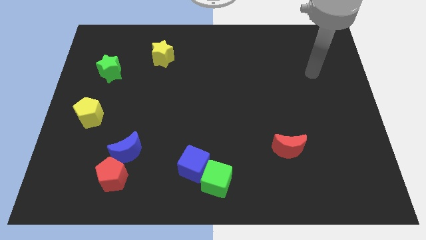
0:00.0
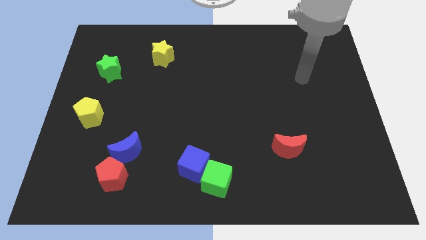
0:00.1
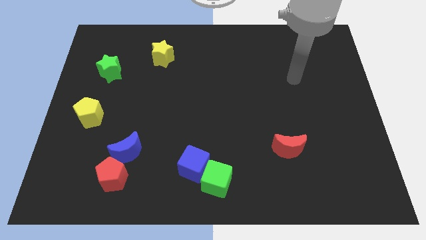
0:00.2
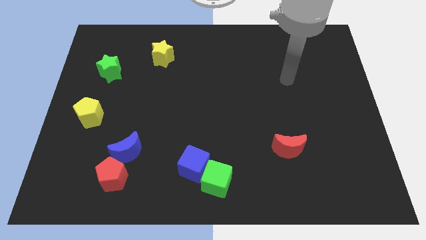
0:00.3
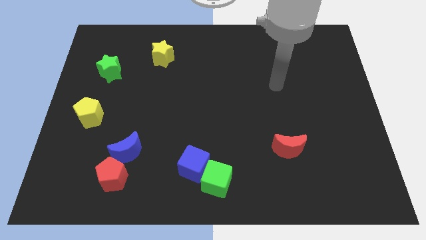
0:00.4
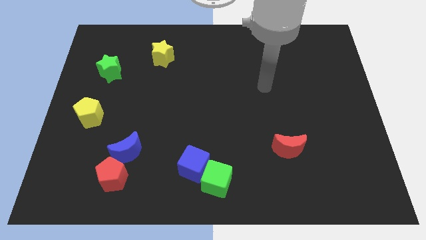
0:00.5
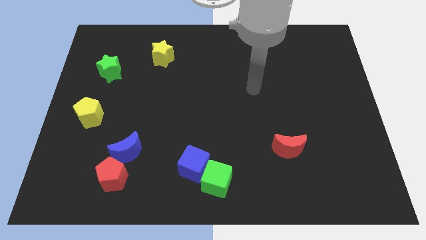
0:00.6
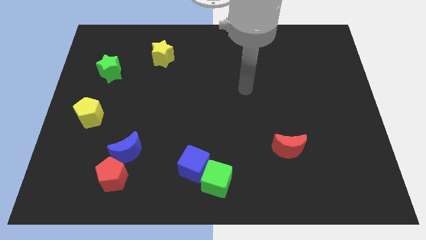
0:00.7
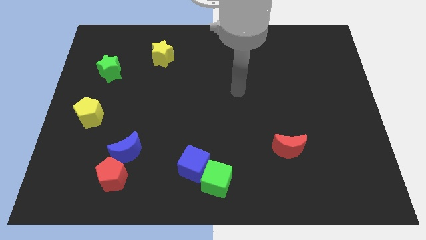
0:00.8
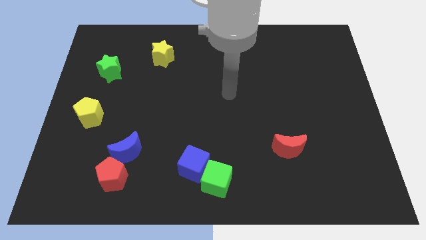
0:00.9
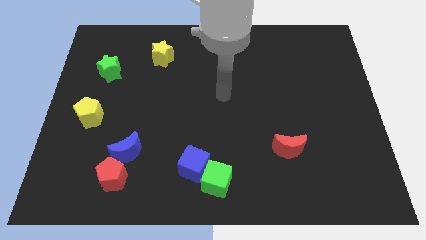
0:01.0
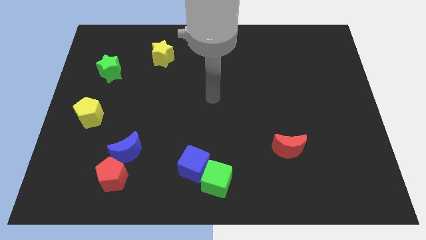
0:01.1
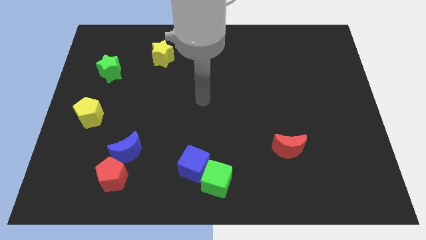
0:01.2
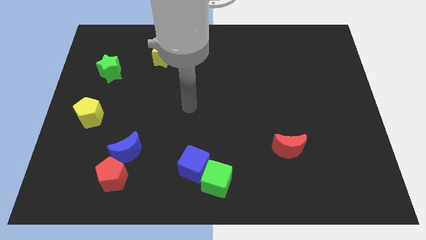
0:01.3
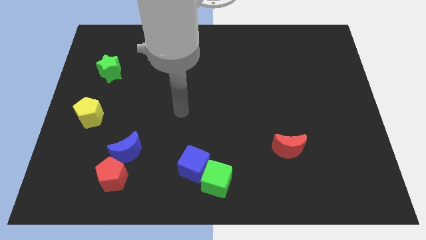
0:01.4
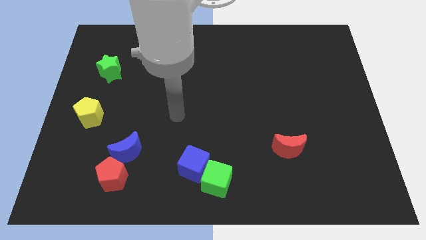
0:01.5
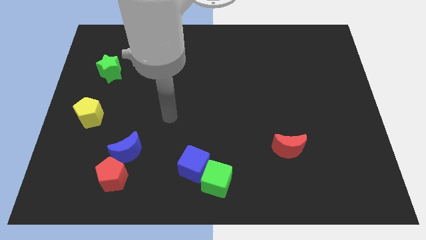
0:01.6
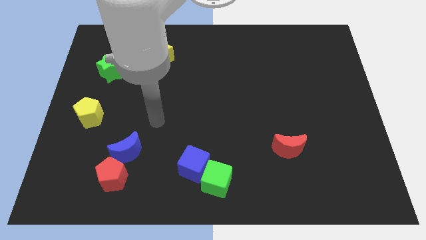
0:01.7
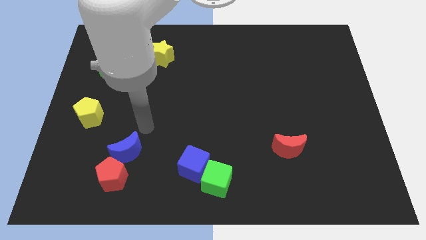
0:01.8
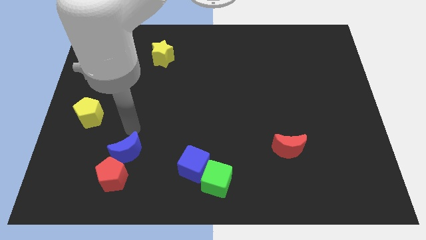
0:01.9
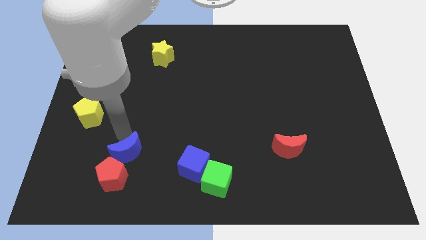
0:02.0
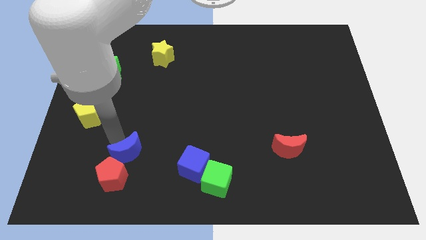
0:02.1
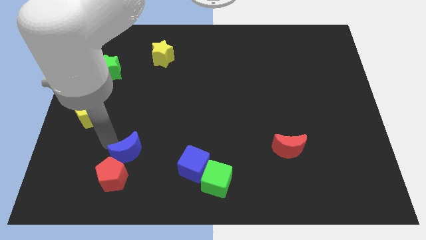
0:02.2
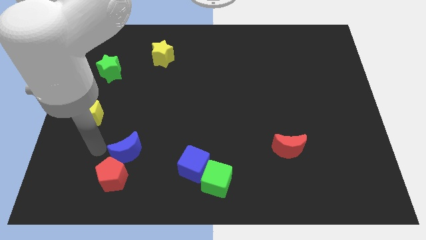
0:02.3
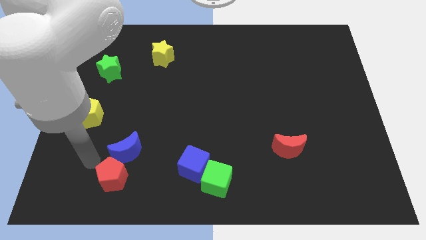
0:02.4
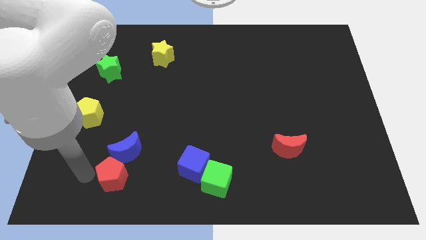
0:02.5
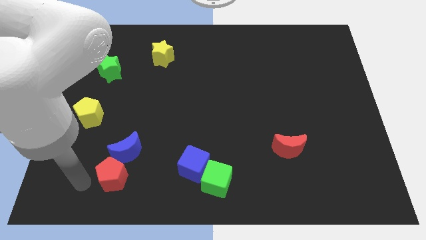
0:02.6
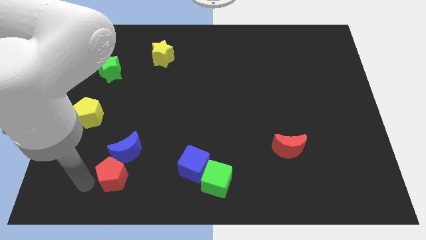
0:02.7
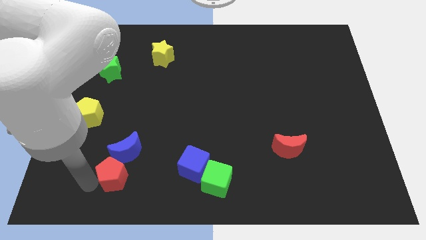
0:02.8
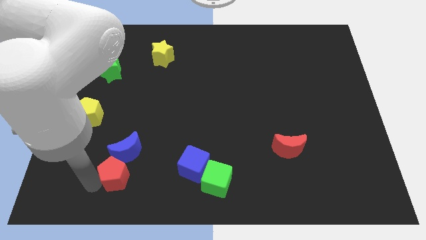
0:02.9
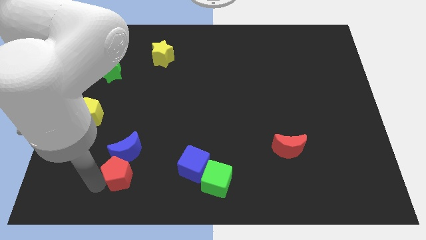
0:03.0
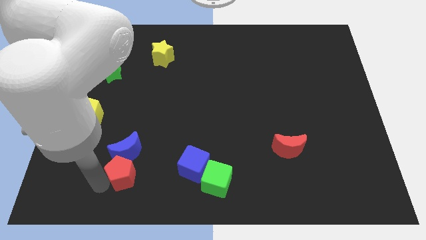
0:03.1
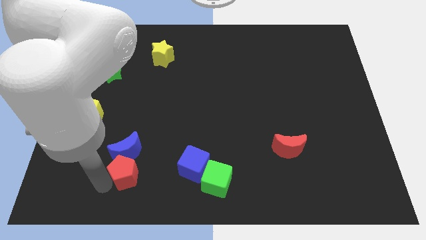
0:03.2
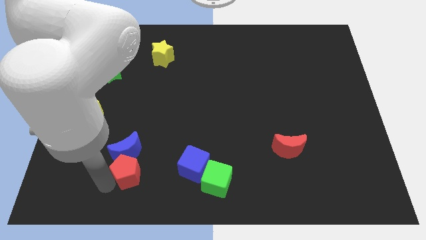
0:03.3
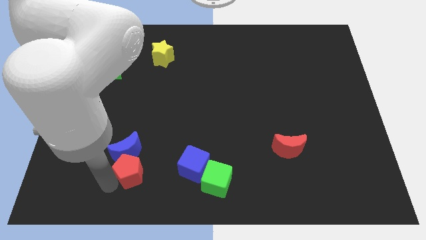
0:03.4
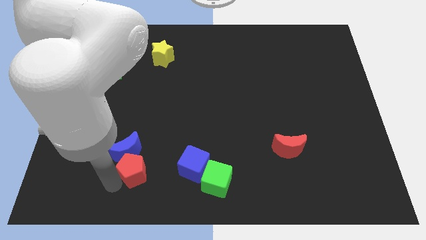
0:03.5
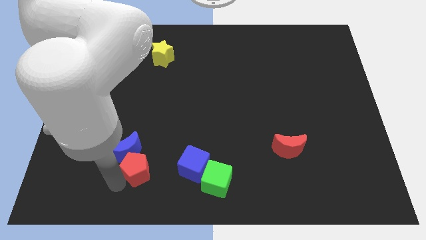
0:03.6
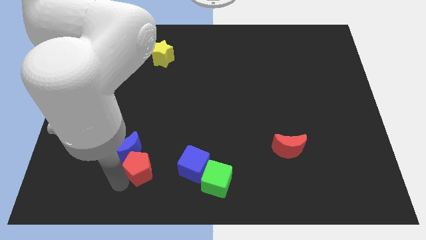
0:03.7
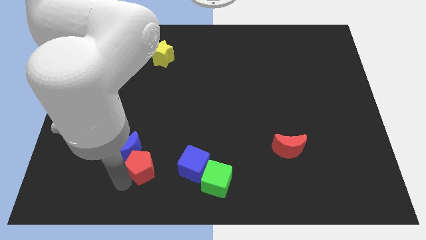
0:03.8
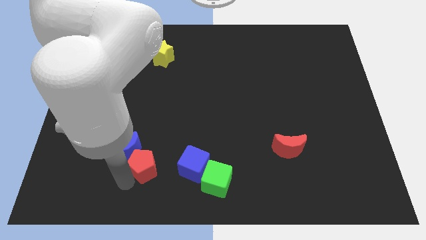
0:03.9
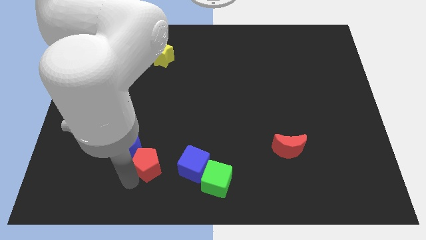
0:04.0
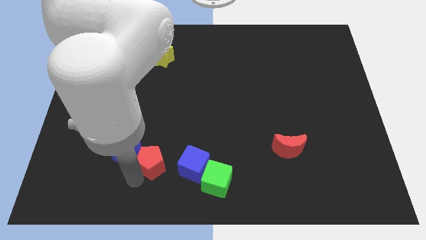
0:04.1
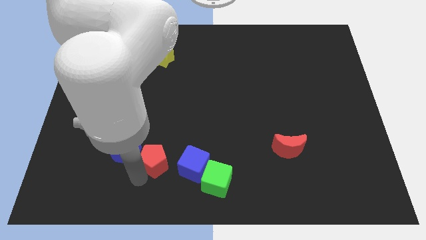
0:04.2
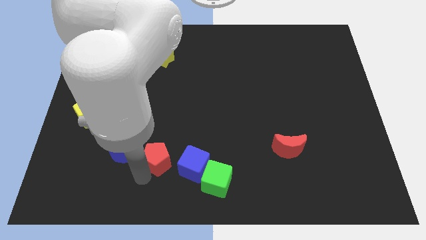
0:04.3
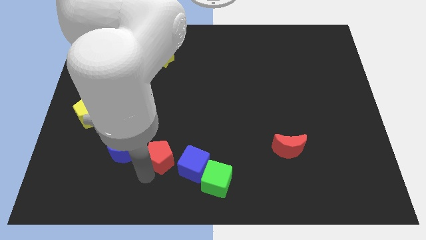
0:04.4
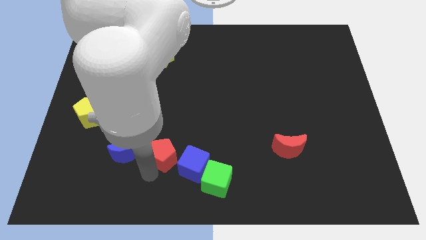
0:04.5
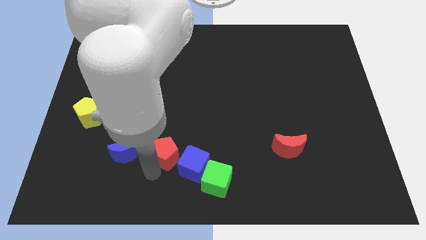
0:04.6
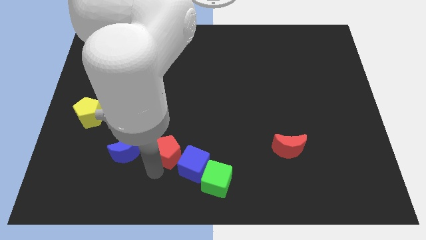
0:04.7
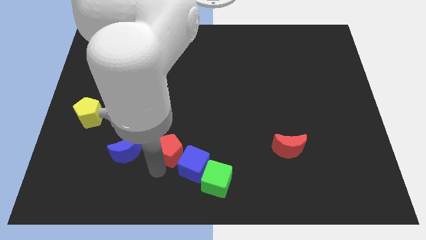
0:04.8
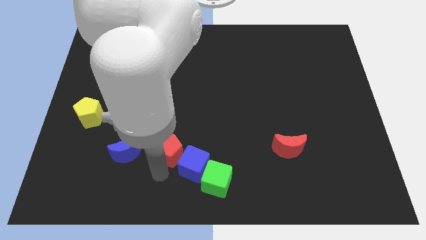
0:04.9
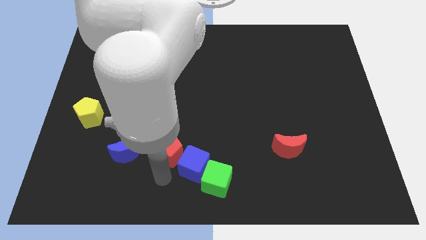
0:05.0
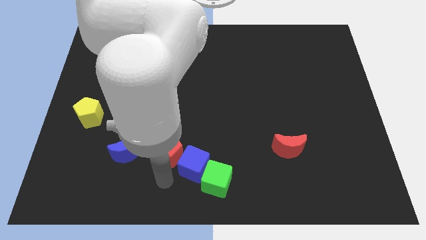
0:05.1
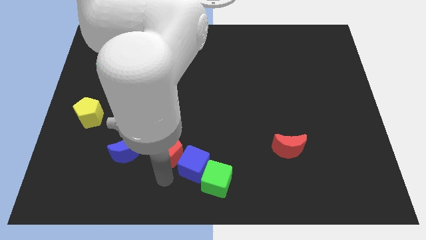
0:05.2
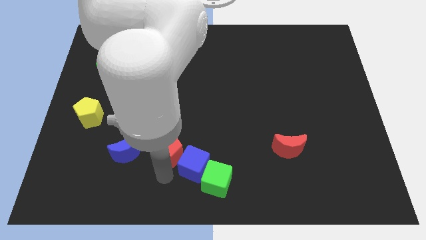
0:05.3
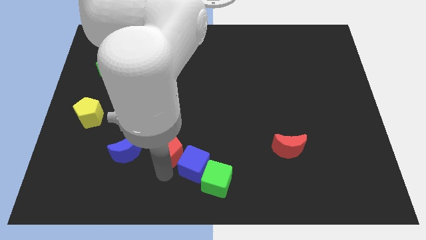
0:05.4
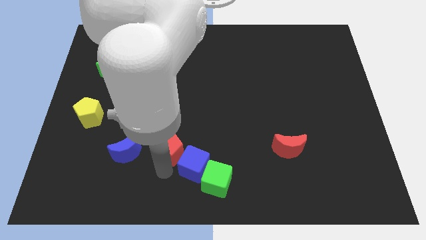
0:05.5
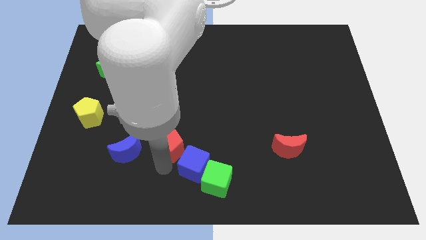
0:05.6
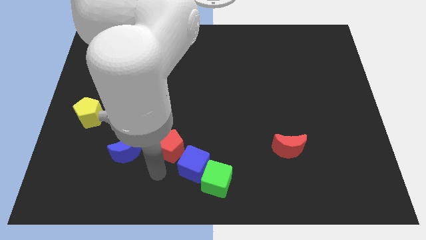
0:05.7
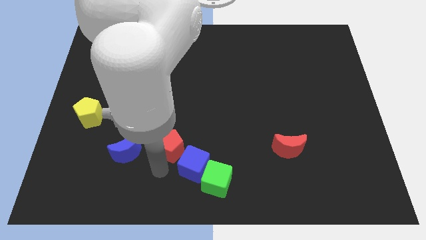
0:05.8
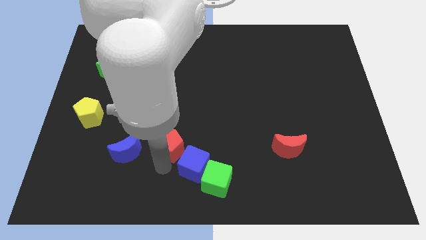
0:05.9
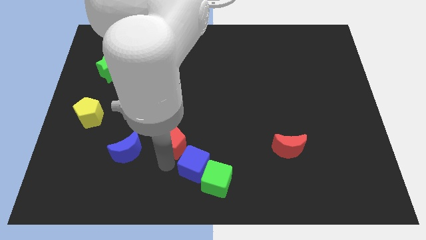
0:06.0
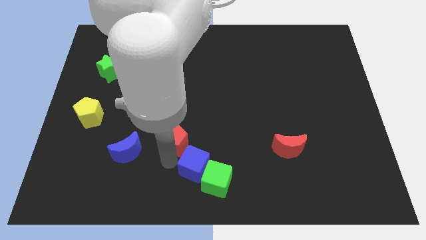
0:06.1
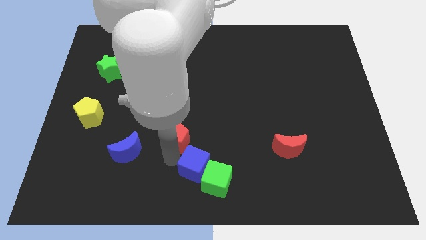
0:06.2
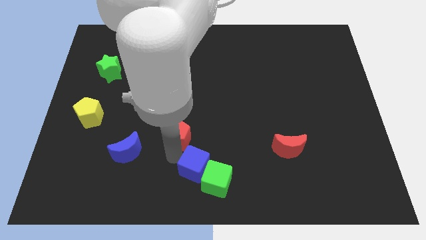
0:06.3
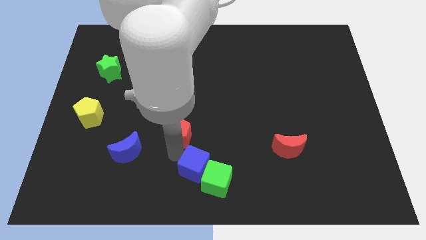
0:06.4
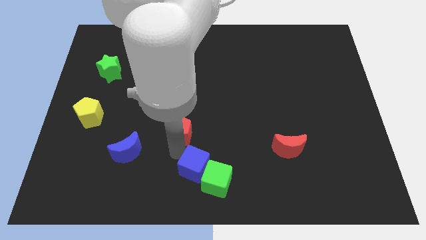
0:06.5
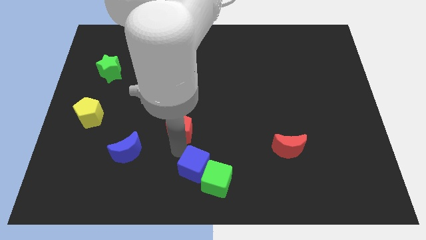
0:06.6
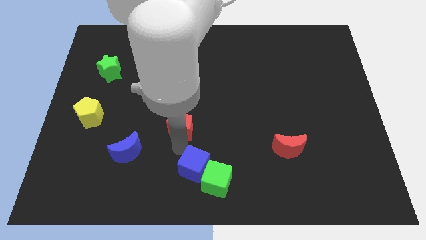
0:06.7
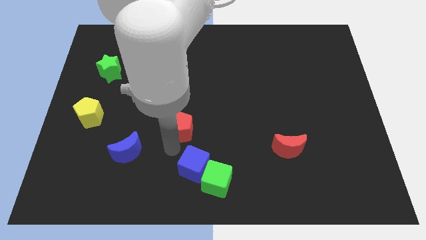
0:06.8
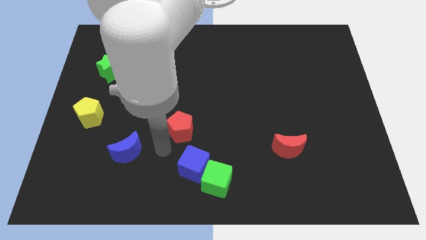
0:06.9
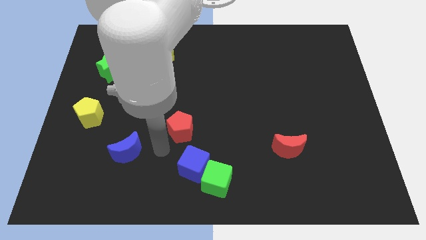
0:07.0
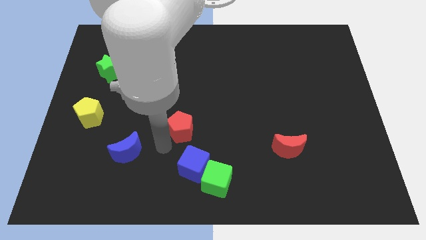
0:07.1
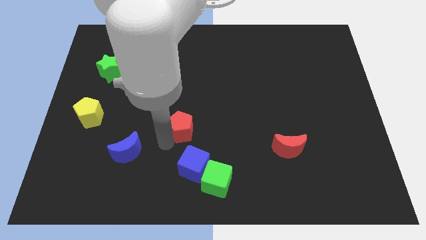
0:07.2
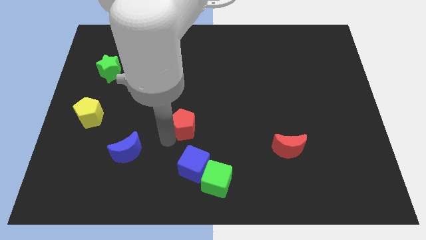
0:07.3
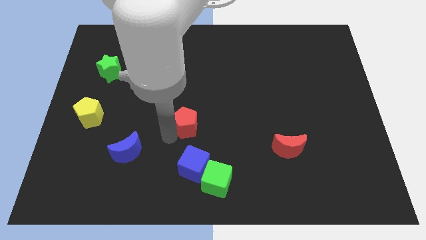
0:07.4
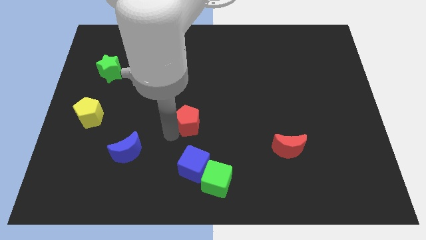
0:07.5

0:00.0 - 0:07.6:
slide the red pentagon diagonally upwards and to the right

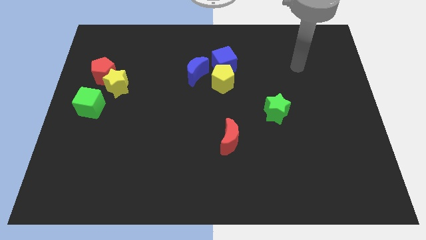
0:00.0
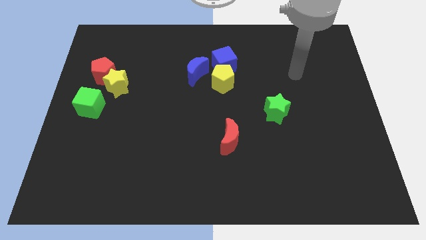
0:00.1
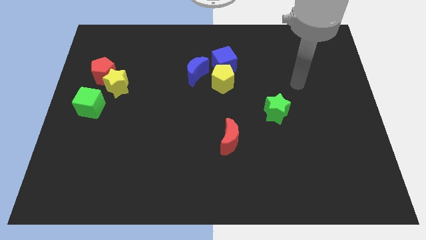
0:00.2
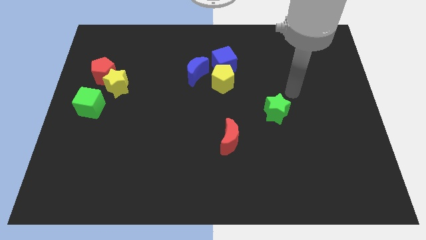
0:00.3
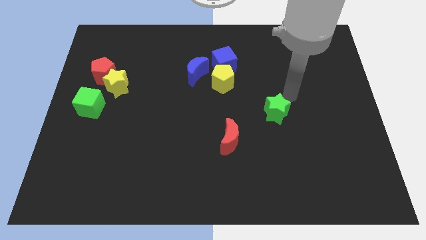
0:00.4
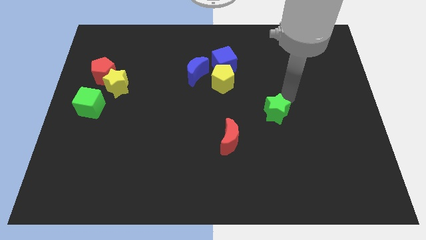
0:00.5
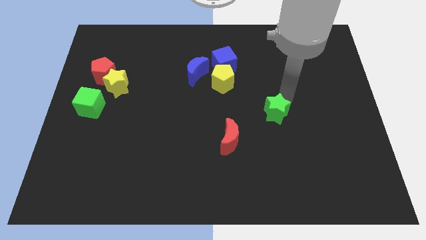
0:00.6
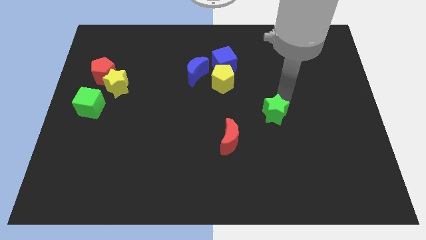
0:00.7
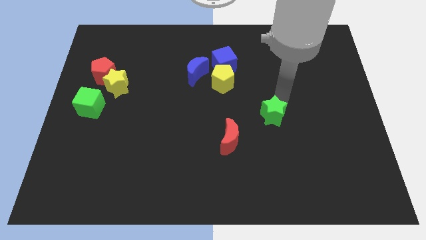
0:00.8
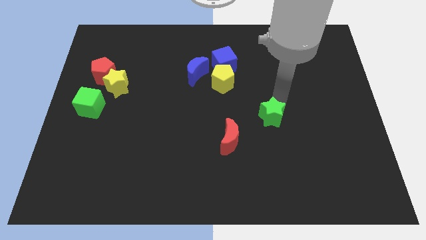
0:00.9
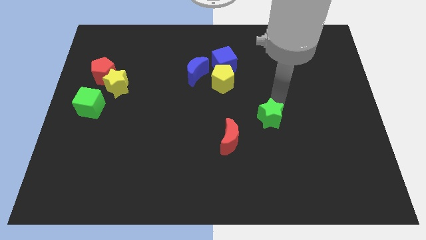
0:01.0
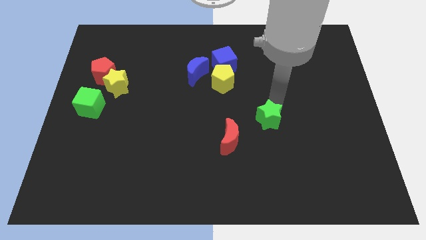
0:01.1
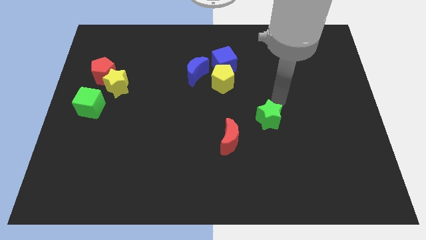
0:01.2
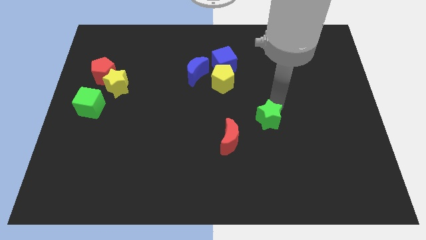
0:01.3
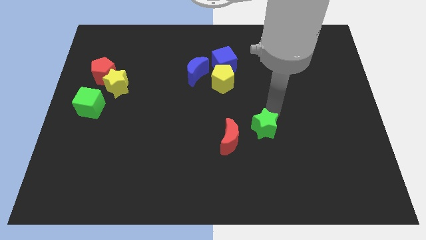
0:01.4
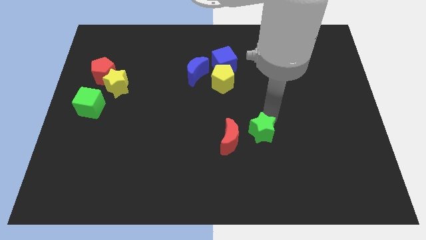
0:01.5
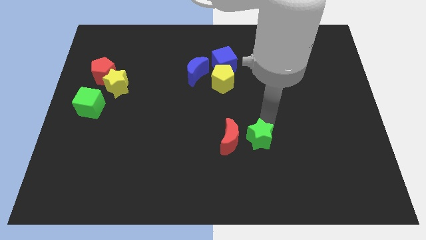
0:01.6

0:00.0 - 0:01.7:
slide the green star downwards and then to the left slightly
